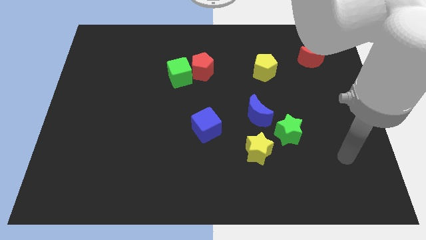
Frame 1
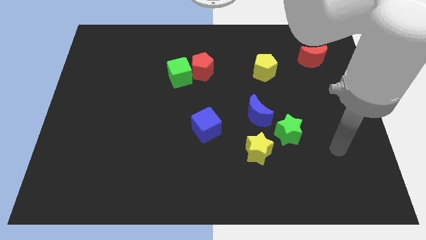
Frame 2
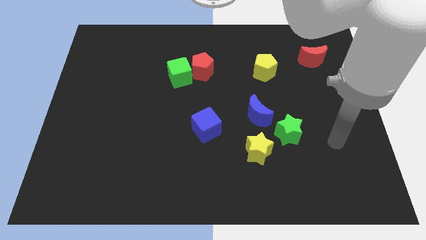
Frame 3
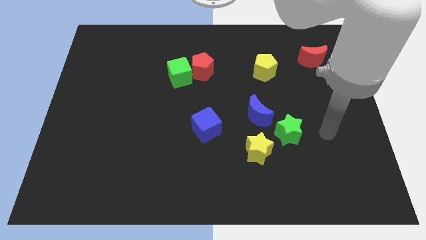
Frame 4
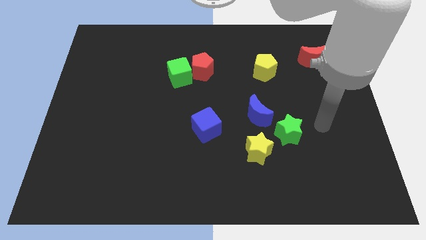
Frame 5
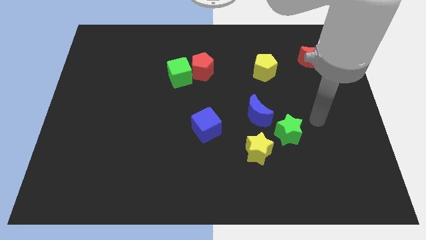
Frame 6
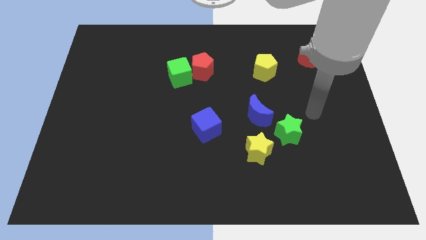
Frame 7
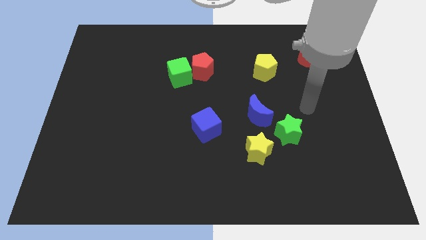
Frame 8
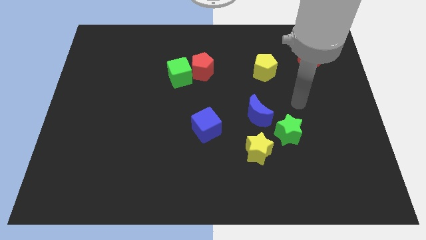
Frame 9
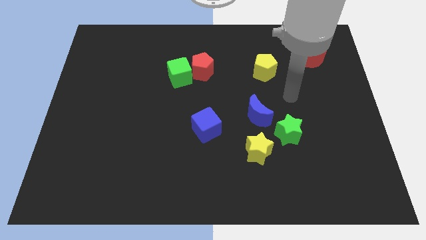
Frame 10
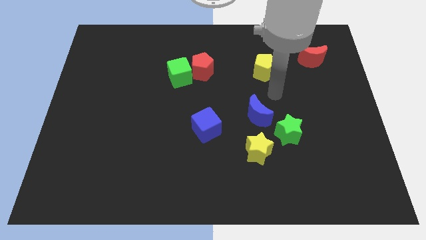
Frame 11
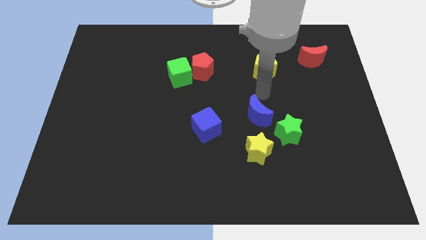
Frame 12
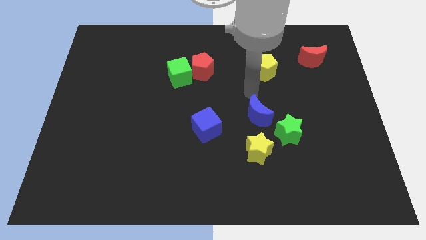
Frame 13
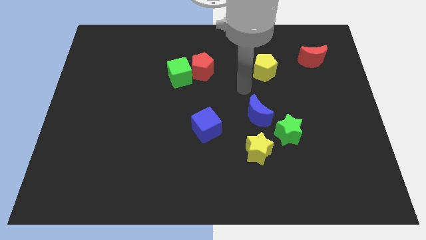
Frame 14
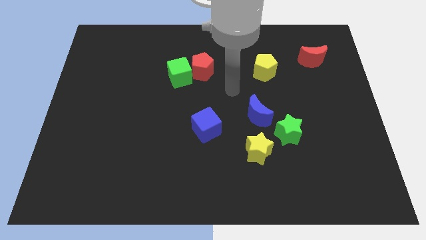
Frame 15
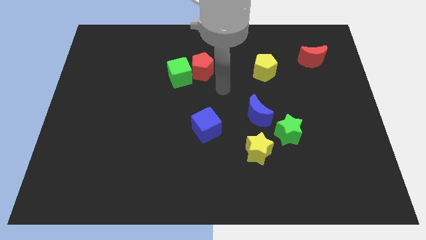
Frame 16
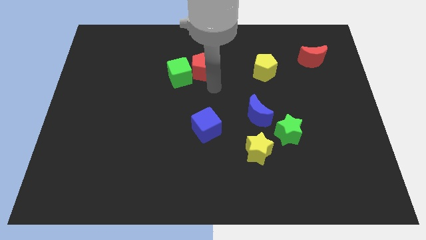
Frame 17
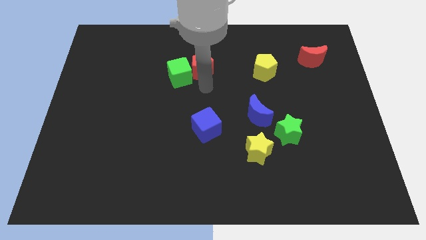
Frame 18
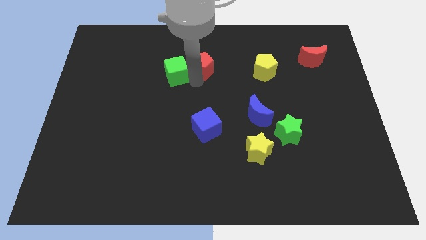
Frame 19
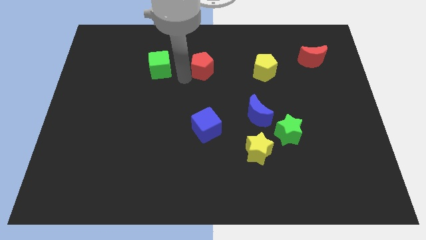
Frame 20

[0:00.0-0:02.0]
pull the red pentagon apart from the green cube

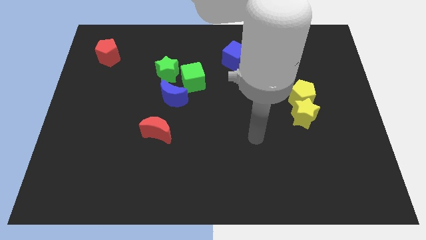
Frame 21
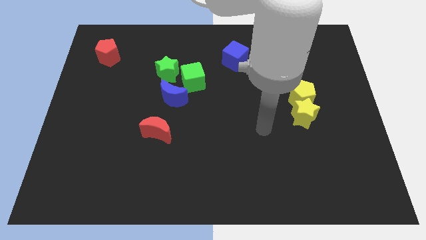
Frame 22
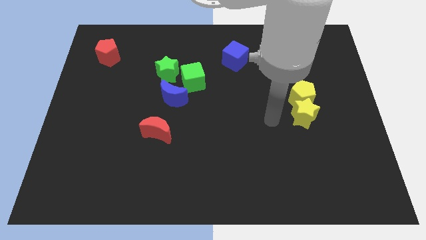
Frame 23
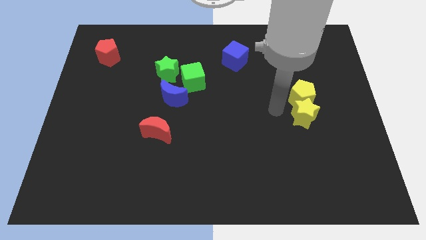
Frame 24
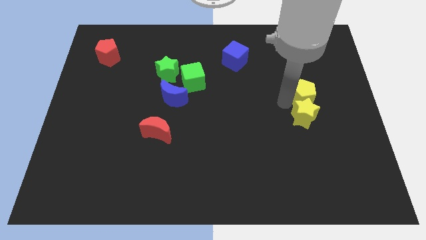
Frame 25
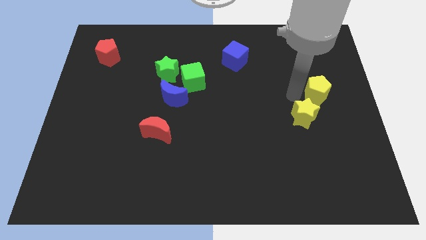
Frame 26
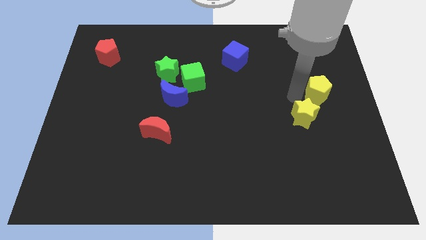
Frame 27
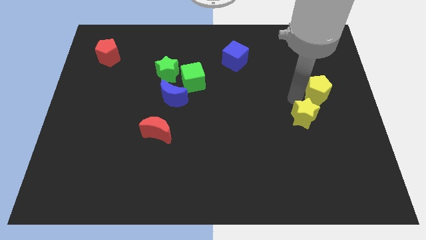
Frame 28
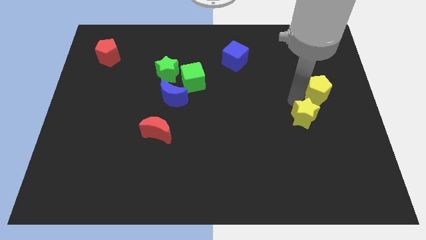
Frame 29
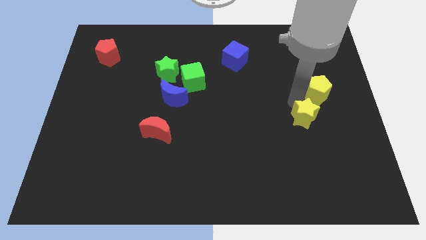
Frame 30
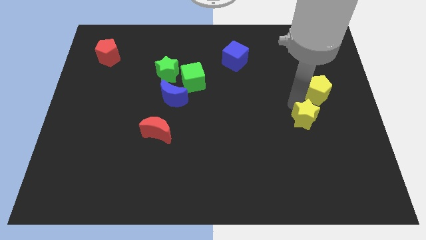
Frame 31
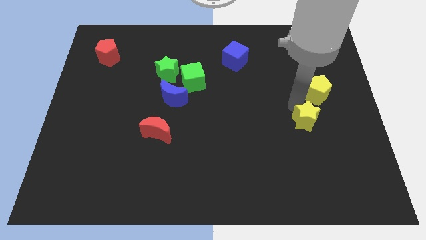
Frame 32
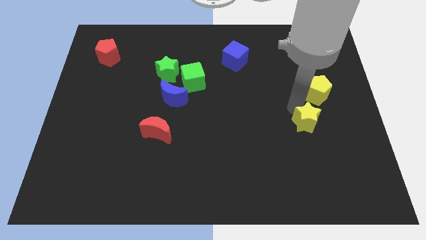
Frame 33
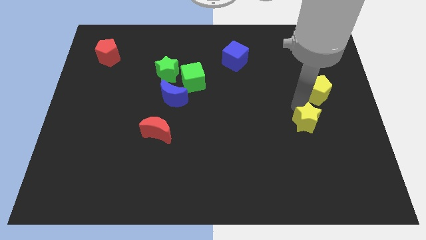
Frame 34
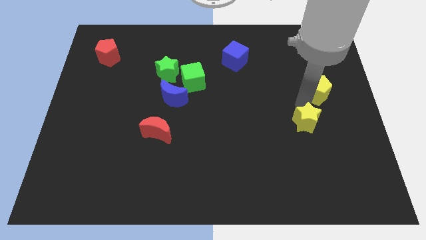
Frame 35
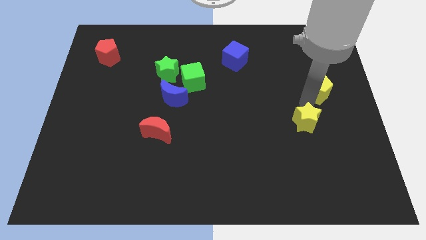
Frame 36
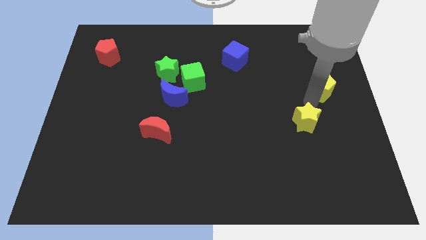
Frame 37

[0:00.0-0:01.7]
pull the yellow star apart from the yellow pentagon

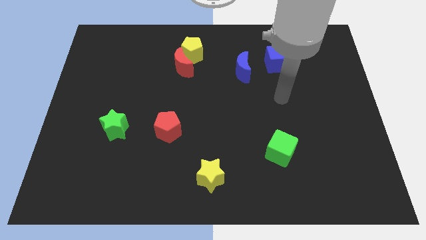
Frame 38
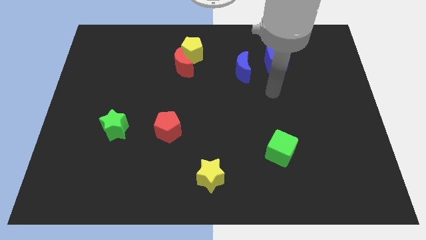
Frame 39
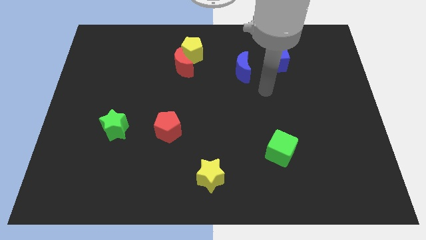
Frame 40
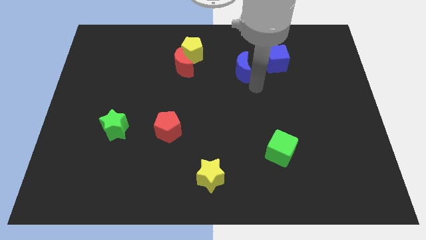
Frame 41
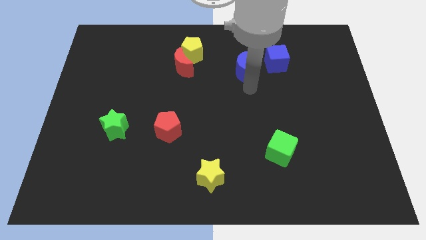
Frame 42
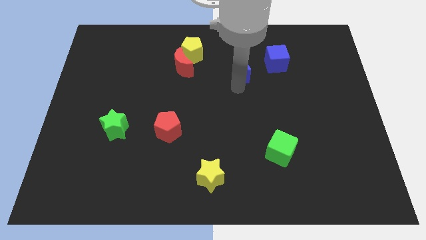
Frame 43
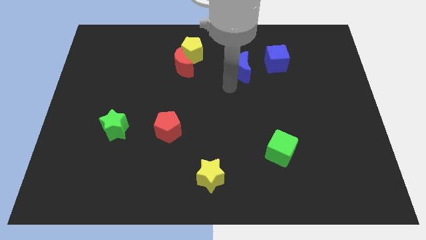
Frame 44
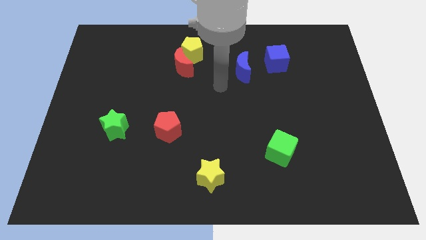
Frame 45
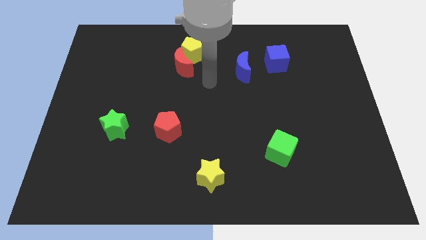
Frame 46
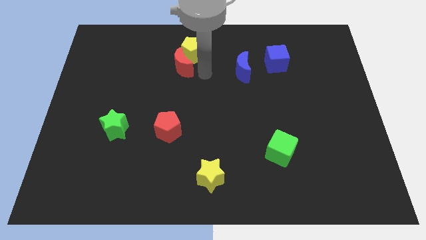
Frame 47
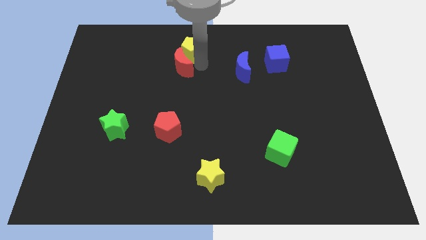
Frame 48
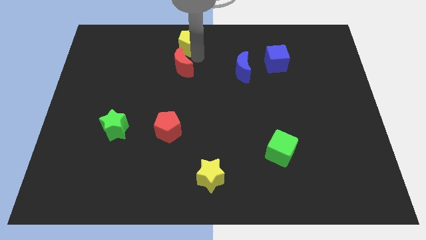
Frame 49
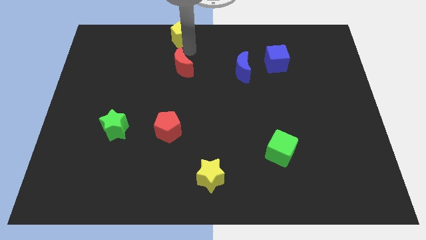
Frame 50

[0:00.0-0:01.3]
move the red moon away from the yellow pentagon

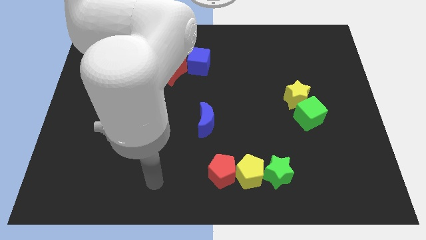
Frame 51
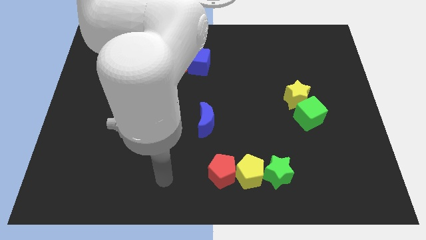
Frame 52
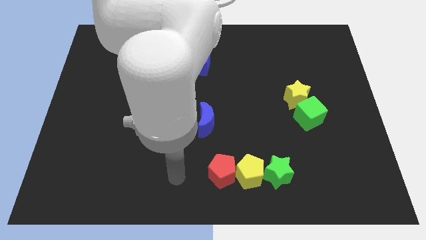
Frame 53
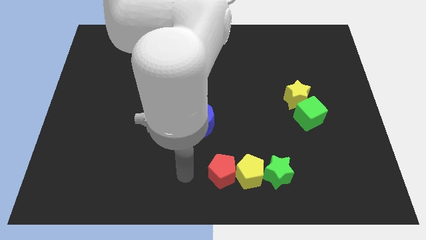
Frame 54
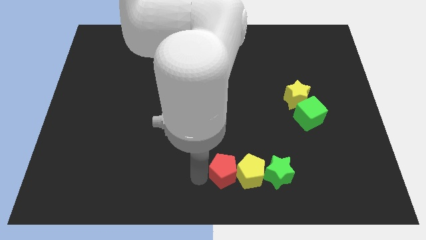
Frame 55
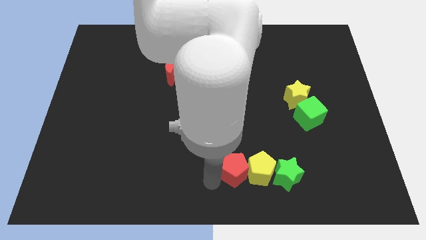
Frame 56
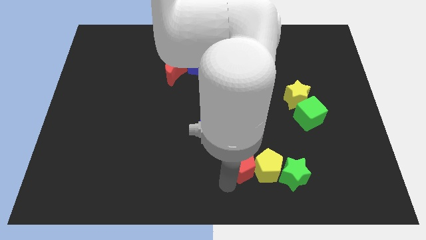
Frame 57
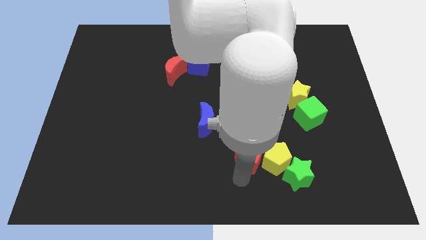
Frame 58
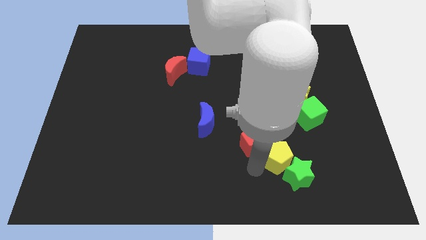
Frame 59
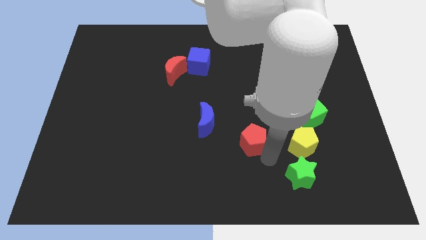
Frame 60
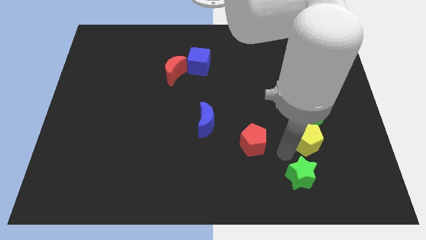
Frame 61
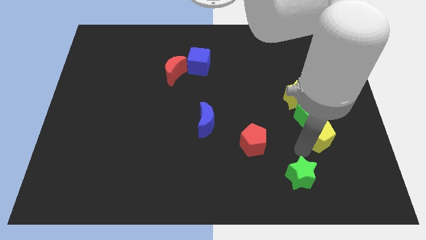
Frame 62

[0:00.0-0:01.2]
separate the green star from the yellow pentagon

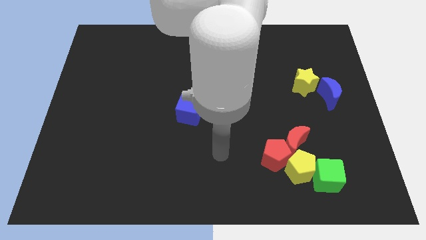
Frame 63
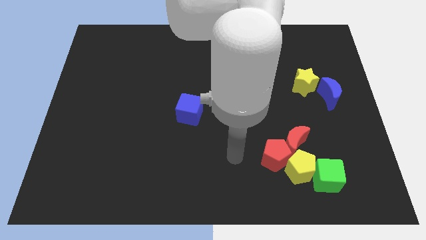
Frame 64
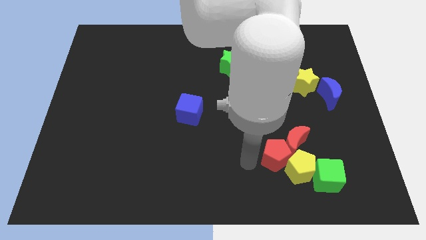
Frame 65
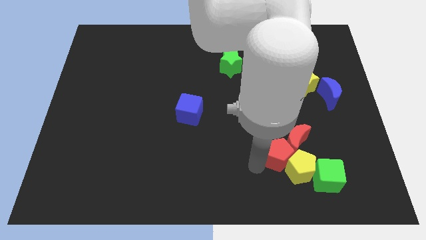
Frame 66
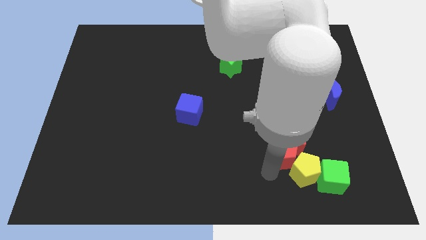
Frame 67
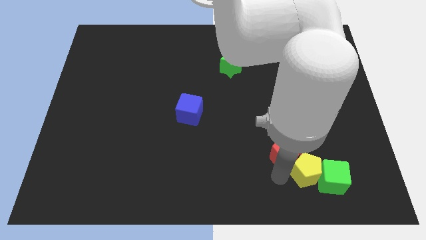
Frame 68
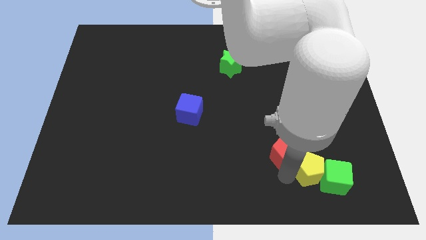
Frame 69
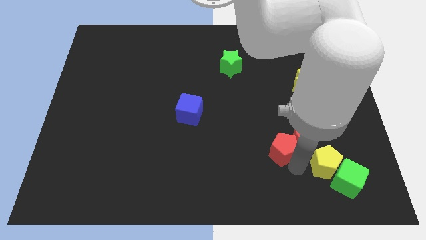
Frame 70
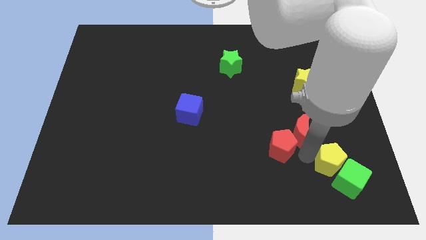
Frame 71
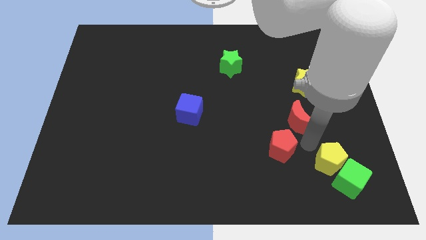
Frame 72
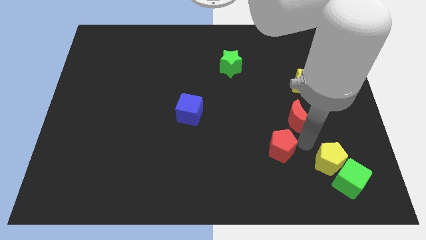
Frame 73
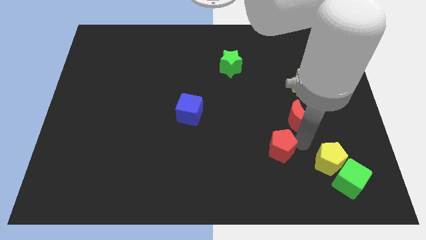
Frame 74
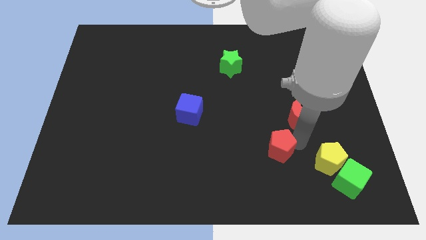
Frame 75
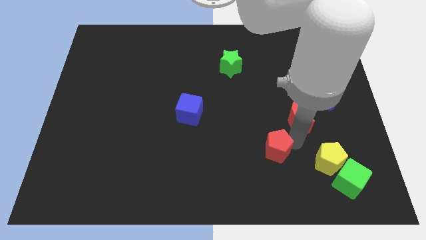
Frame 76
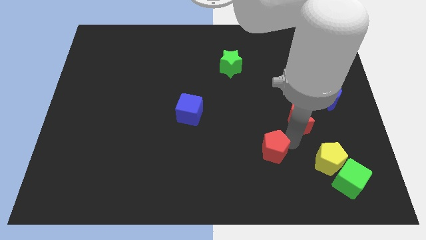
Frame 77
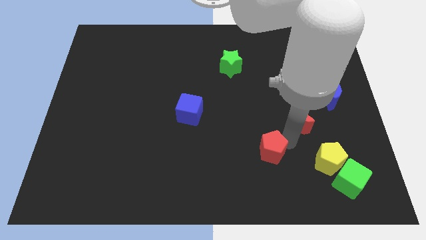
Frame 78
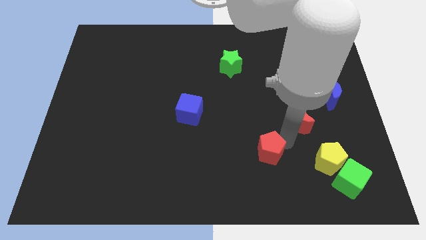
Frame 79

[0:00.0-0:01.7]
pull the red pentagon apart from the red moon and yellow pentagon

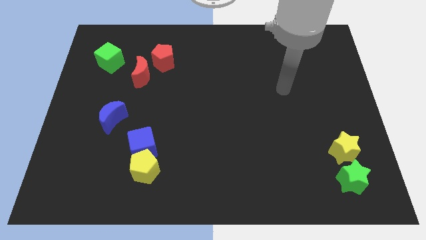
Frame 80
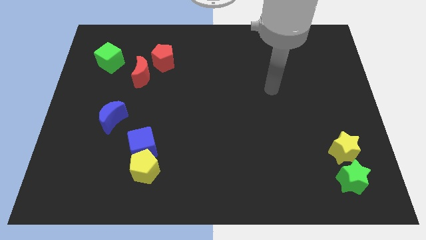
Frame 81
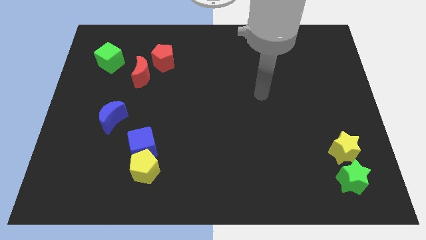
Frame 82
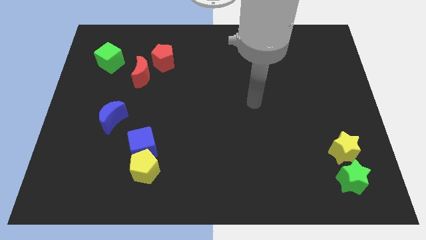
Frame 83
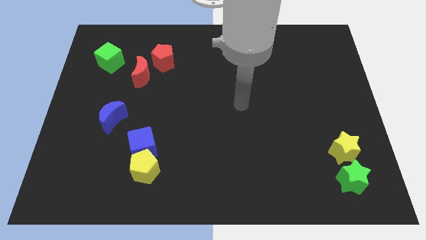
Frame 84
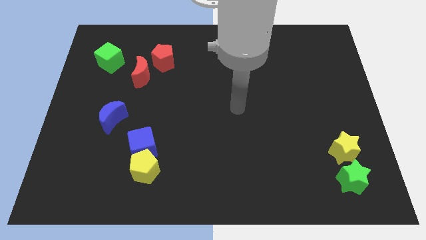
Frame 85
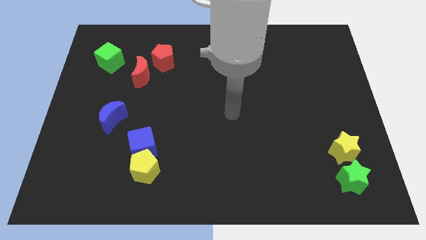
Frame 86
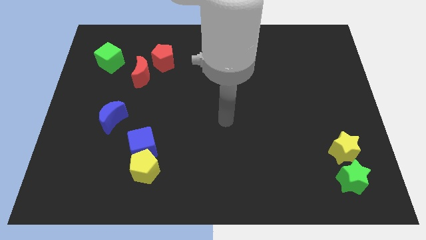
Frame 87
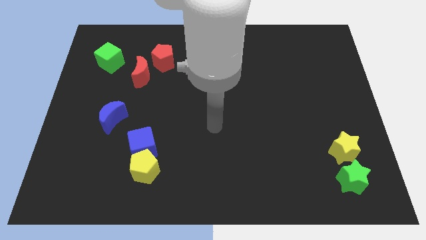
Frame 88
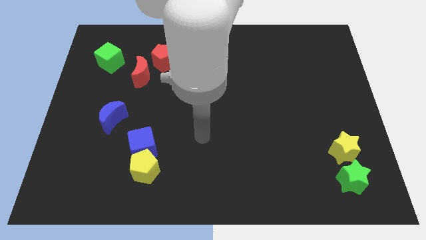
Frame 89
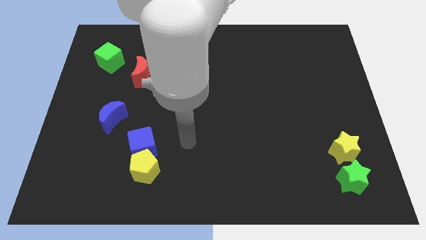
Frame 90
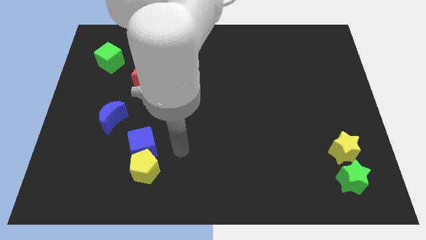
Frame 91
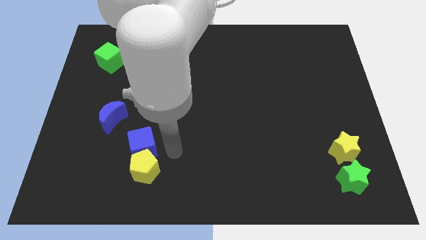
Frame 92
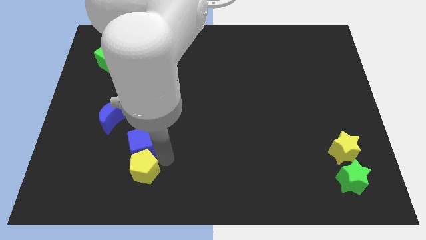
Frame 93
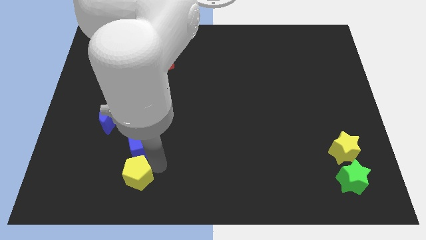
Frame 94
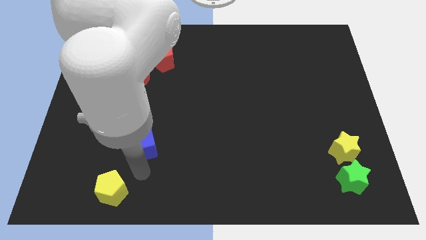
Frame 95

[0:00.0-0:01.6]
pull the blue cube apart from the yellow pentagon
